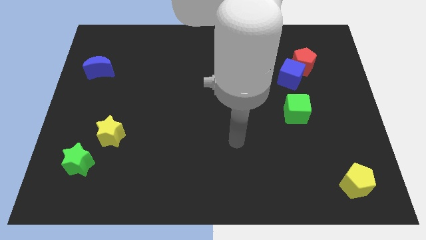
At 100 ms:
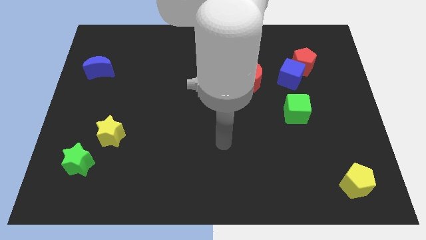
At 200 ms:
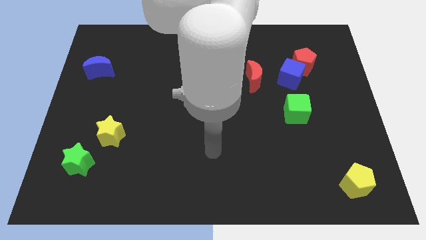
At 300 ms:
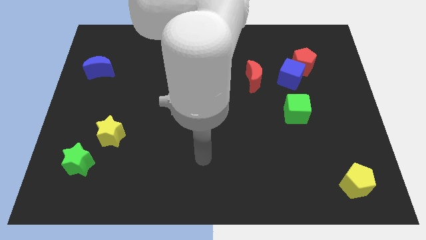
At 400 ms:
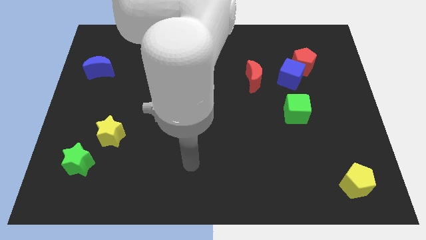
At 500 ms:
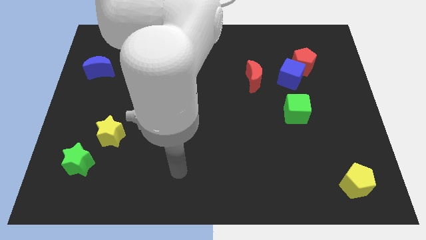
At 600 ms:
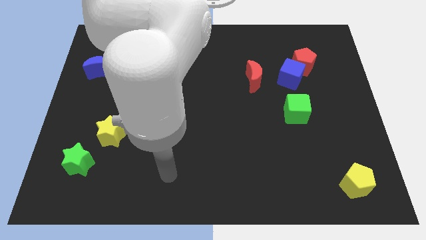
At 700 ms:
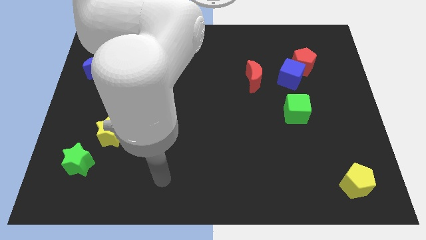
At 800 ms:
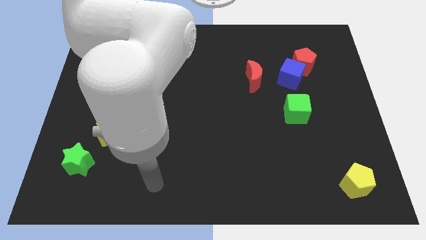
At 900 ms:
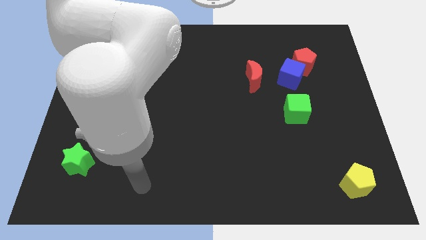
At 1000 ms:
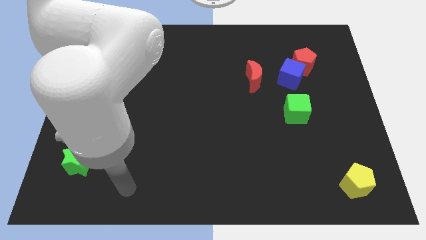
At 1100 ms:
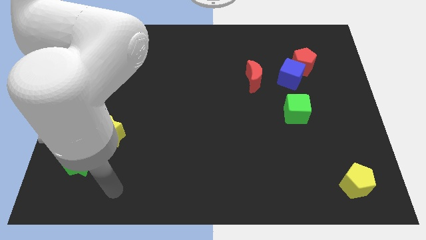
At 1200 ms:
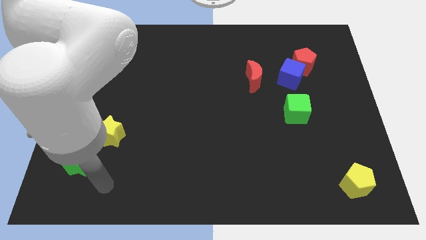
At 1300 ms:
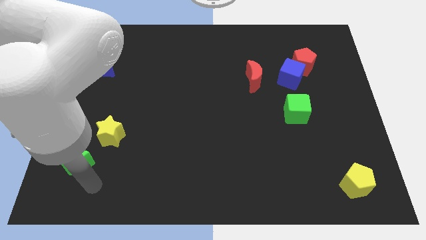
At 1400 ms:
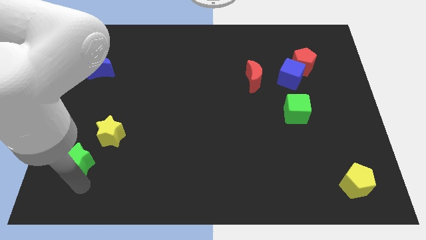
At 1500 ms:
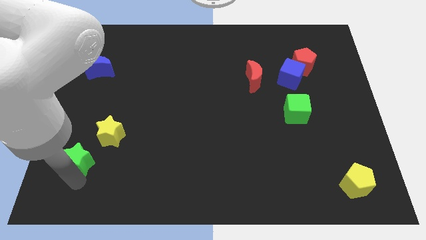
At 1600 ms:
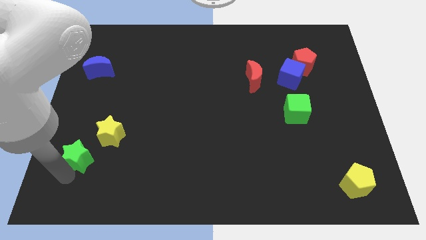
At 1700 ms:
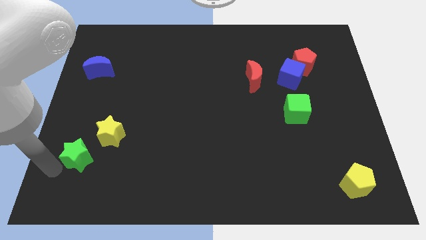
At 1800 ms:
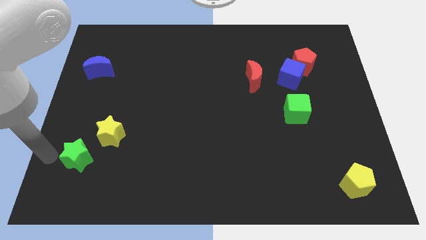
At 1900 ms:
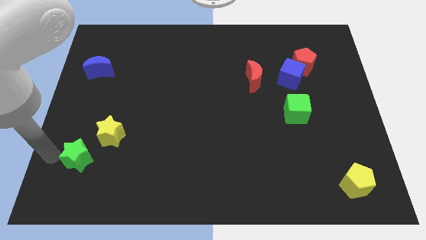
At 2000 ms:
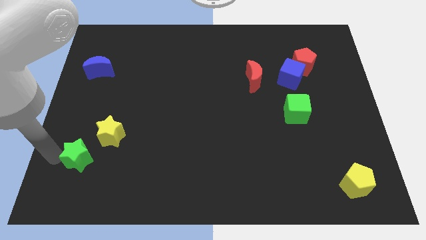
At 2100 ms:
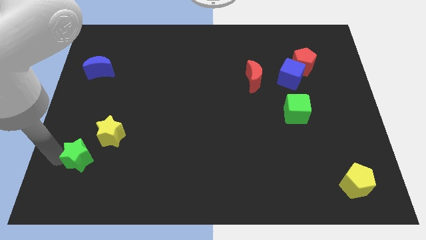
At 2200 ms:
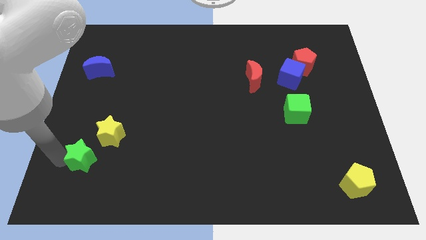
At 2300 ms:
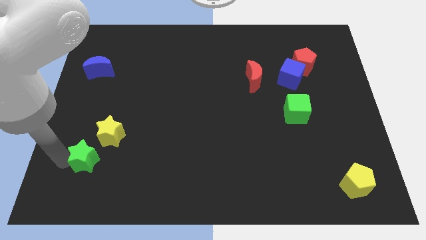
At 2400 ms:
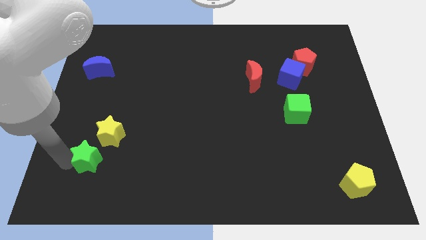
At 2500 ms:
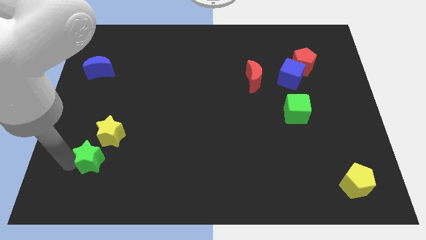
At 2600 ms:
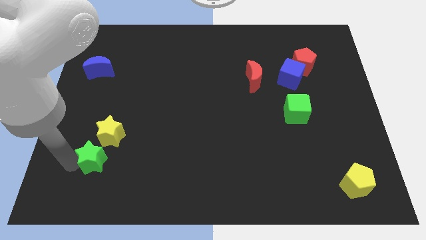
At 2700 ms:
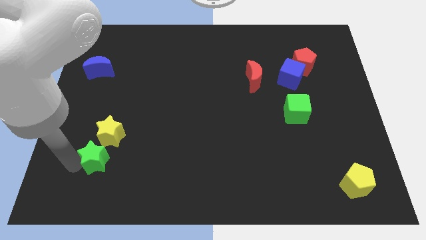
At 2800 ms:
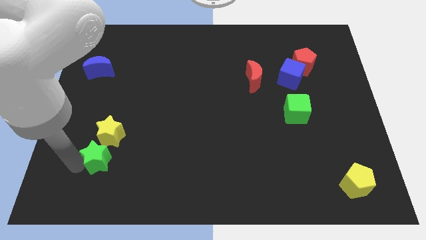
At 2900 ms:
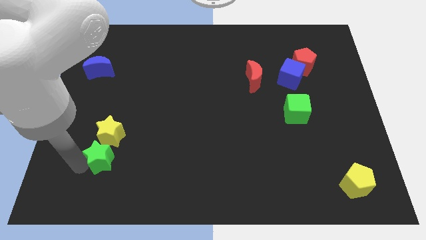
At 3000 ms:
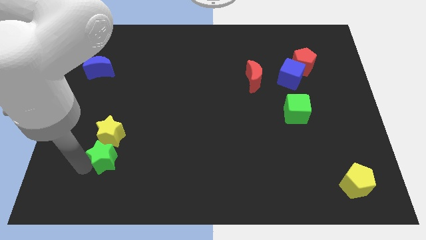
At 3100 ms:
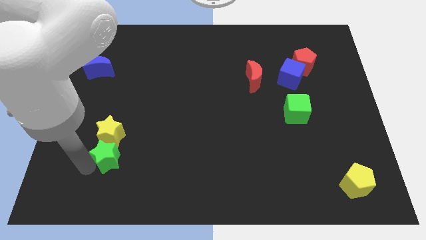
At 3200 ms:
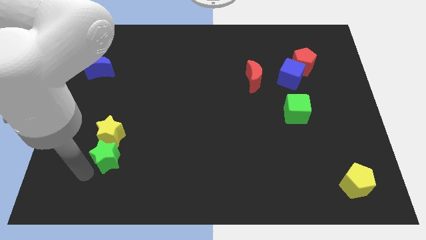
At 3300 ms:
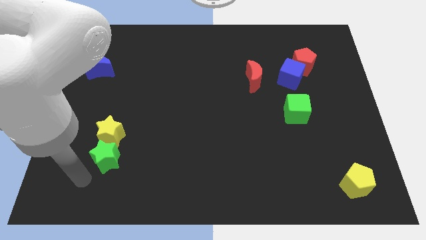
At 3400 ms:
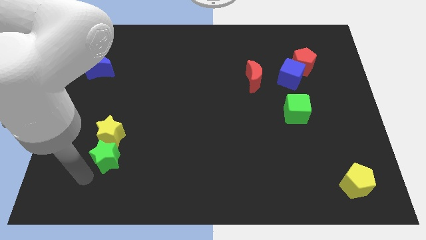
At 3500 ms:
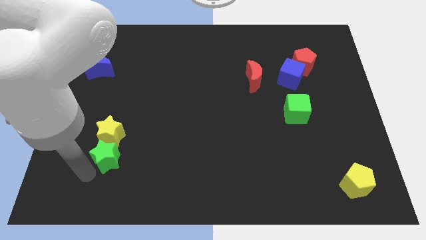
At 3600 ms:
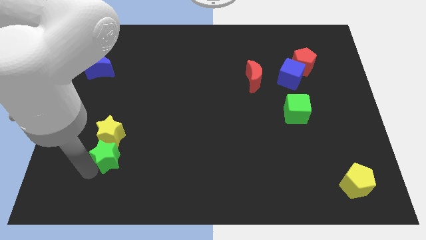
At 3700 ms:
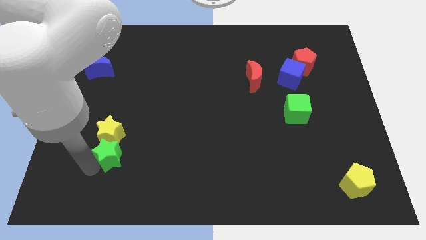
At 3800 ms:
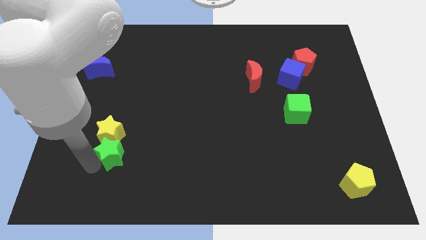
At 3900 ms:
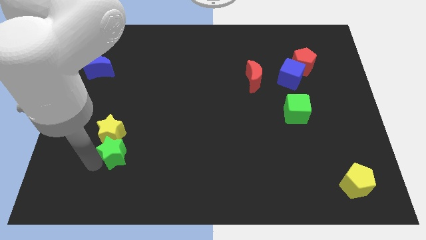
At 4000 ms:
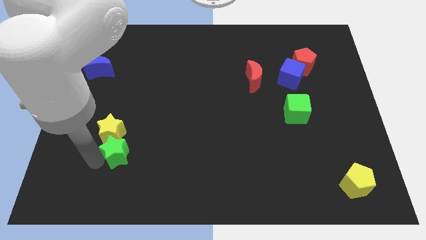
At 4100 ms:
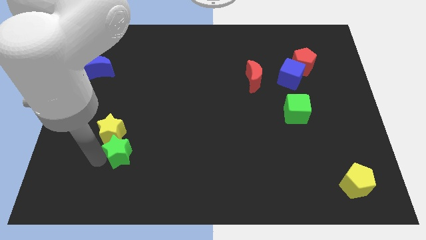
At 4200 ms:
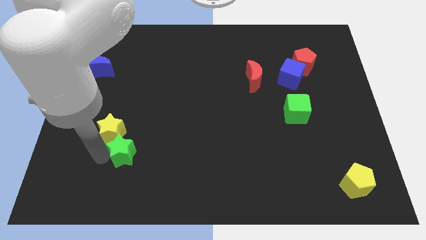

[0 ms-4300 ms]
slightly move the green star up and right diagonally

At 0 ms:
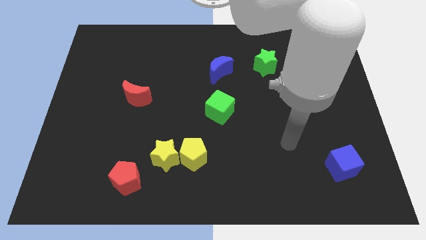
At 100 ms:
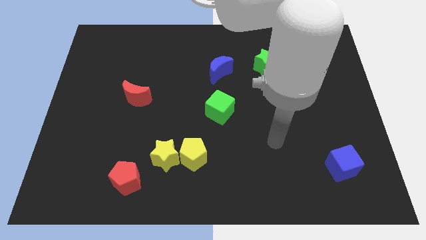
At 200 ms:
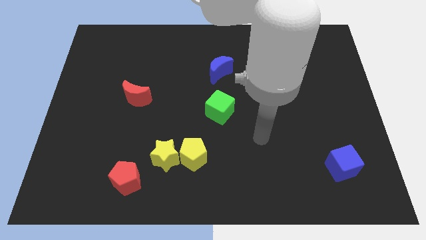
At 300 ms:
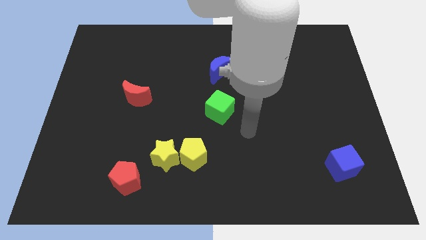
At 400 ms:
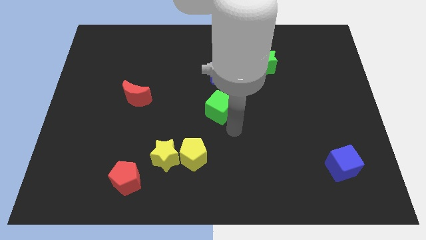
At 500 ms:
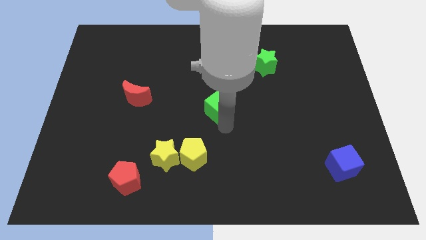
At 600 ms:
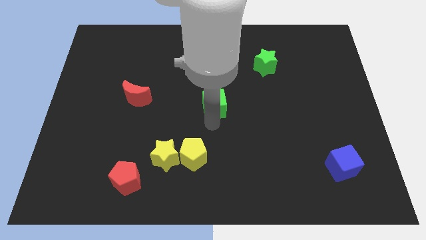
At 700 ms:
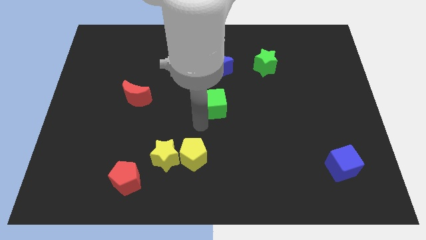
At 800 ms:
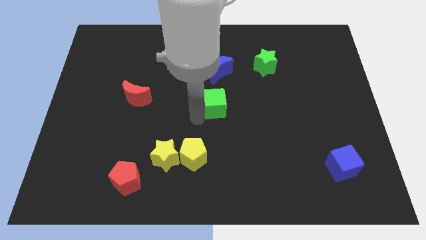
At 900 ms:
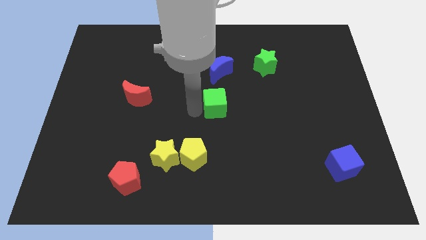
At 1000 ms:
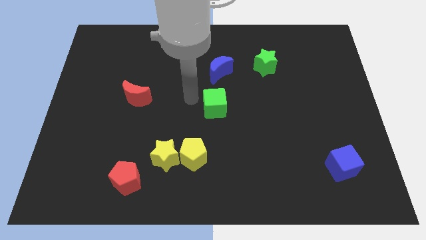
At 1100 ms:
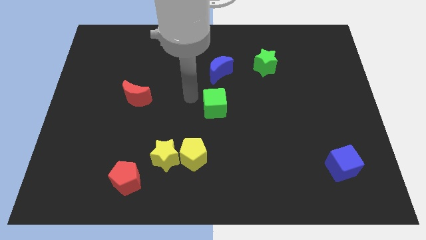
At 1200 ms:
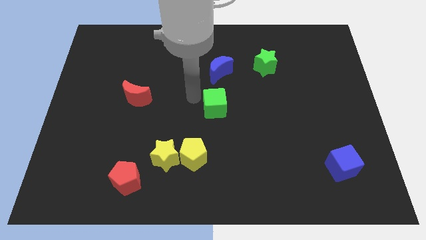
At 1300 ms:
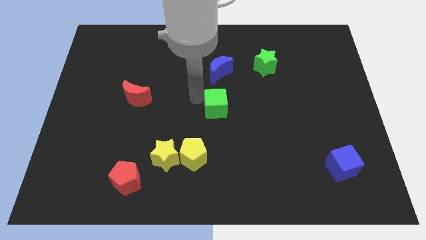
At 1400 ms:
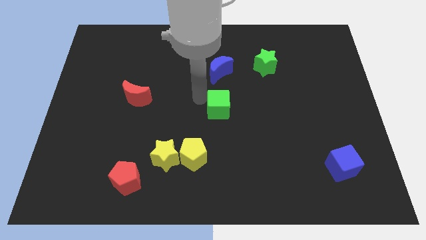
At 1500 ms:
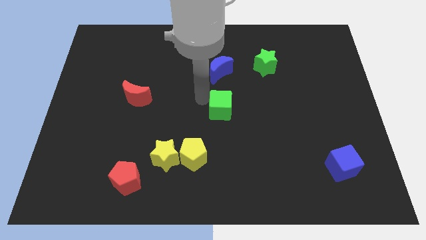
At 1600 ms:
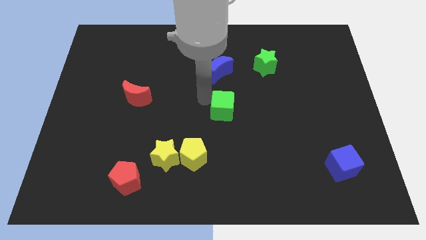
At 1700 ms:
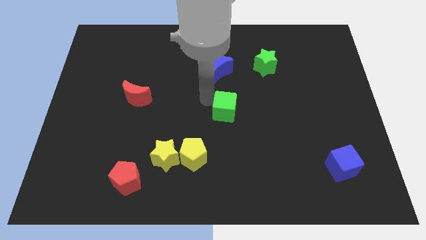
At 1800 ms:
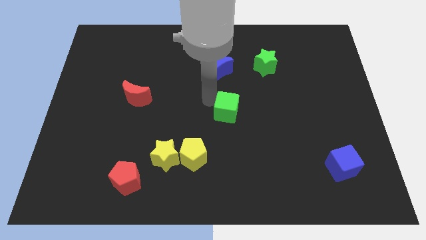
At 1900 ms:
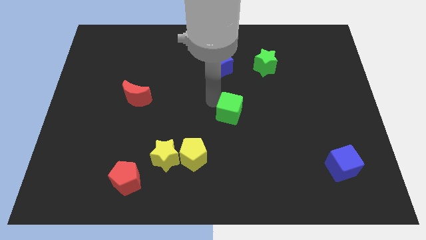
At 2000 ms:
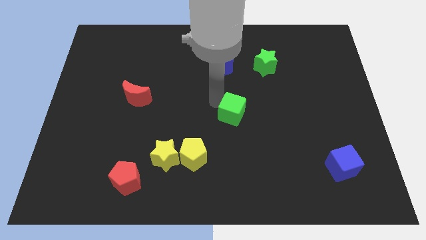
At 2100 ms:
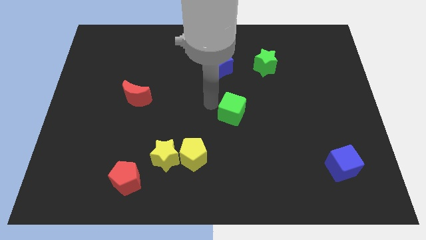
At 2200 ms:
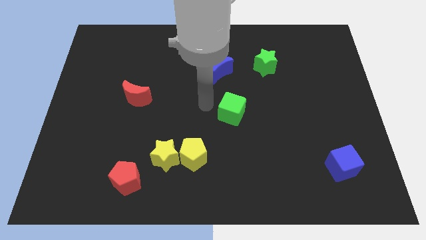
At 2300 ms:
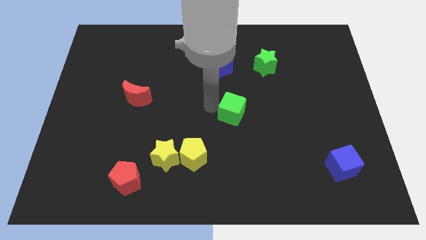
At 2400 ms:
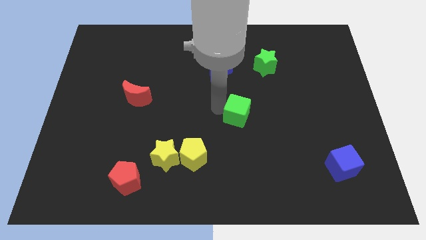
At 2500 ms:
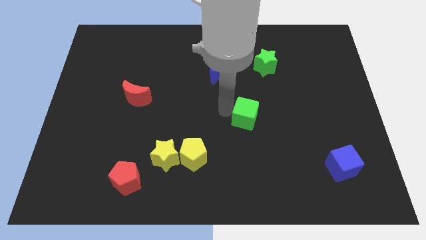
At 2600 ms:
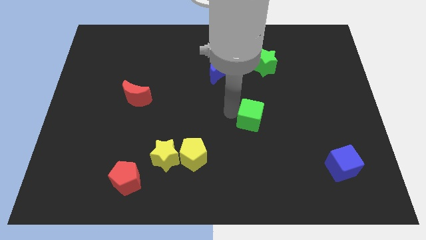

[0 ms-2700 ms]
slightly slide the green cube to the right

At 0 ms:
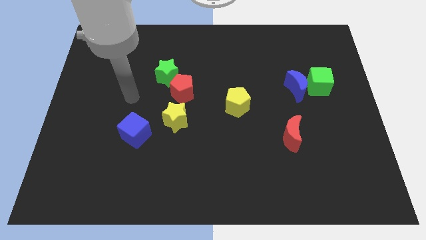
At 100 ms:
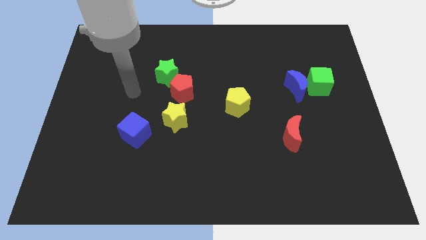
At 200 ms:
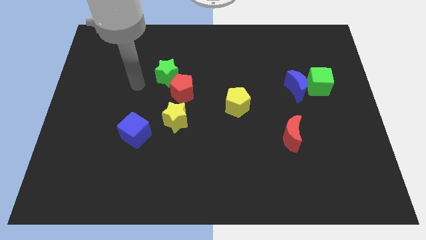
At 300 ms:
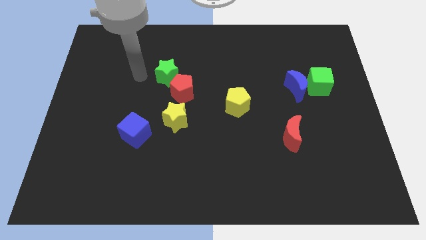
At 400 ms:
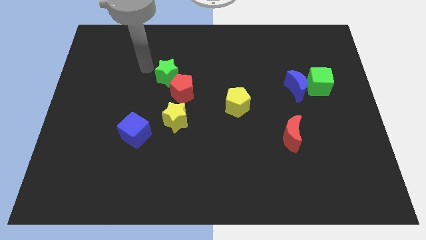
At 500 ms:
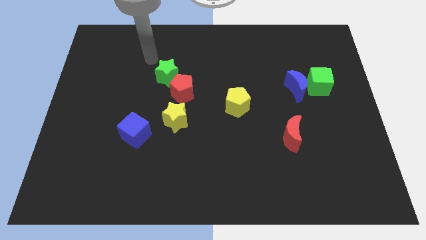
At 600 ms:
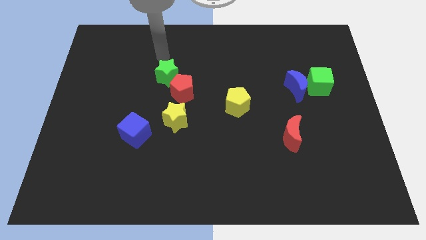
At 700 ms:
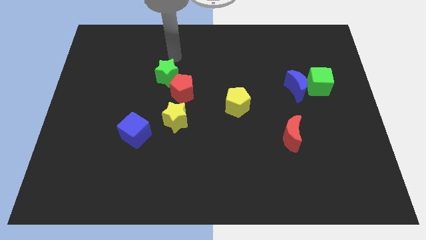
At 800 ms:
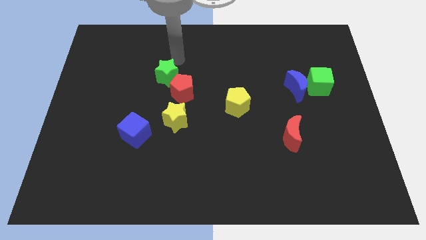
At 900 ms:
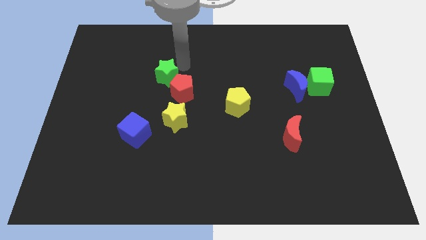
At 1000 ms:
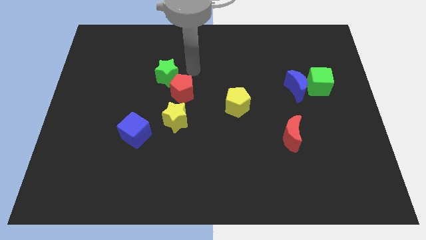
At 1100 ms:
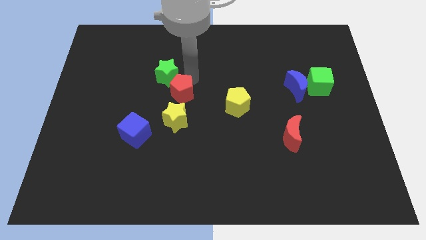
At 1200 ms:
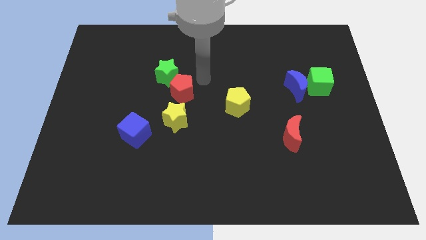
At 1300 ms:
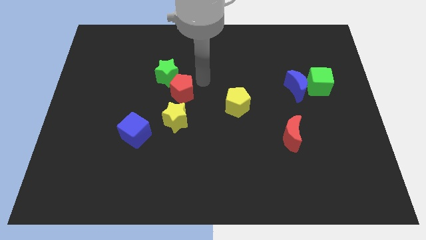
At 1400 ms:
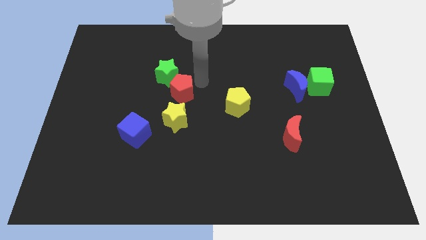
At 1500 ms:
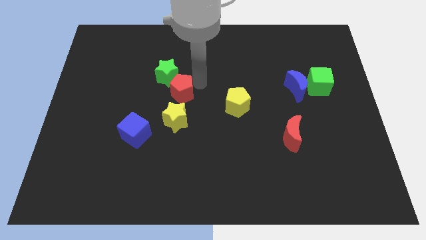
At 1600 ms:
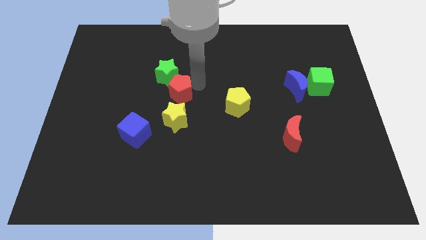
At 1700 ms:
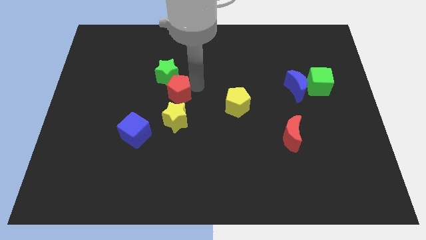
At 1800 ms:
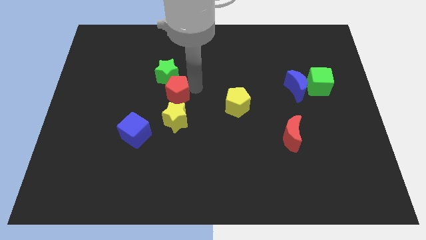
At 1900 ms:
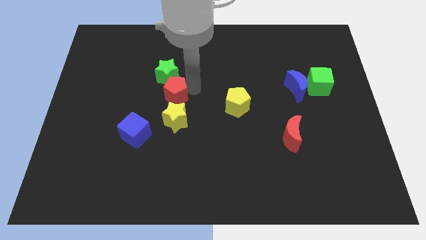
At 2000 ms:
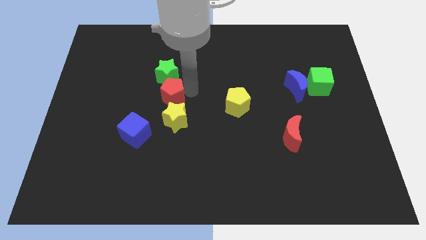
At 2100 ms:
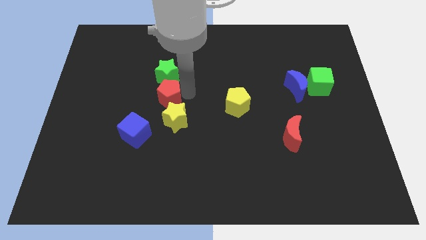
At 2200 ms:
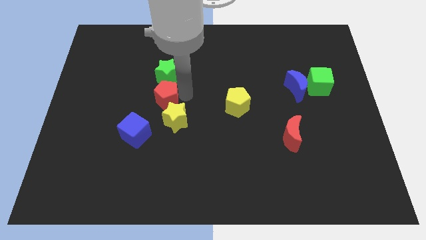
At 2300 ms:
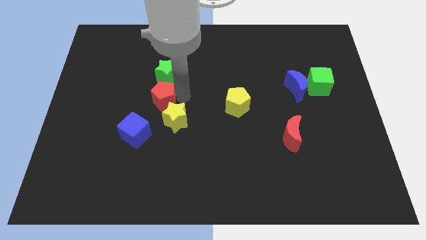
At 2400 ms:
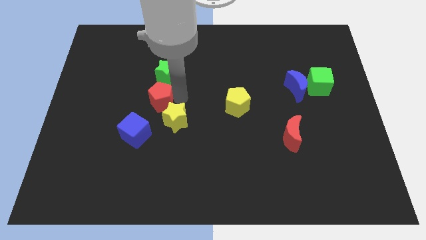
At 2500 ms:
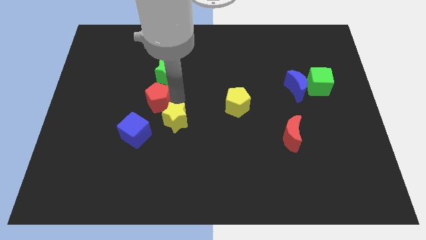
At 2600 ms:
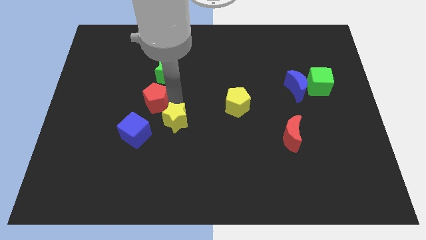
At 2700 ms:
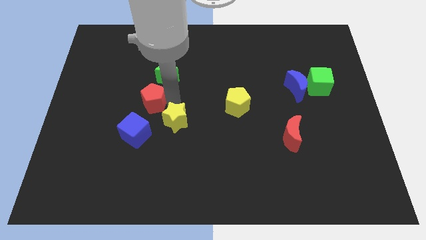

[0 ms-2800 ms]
slightly move the red pentagon downwards and then left
